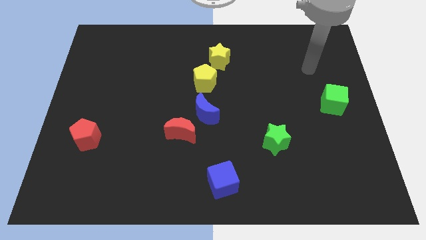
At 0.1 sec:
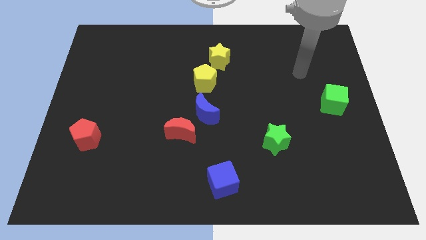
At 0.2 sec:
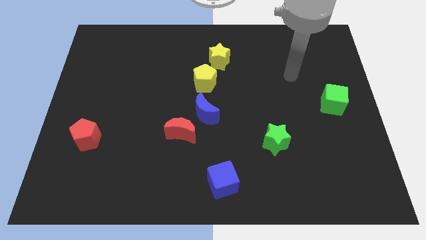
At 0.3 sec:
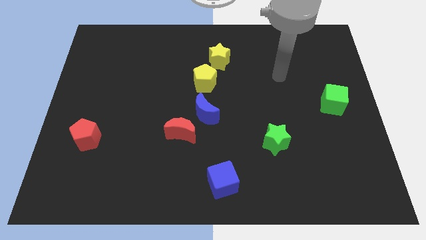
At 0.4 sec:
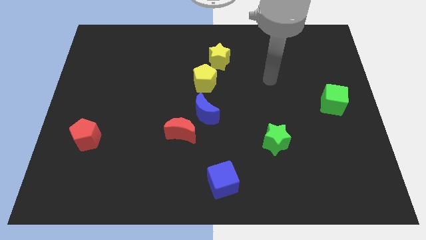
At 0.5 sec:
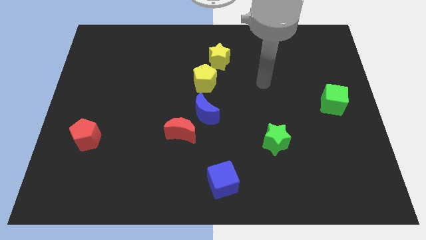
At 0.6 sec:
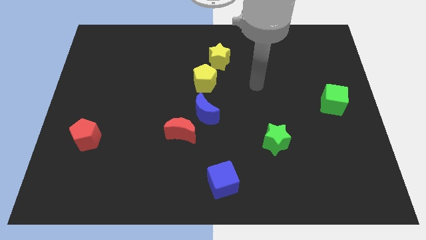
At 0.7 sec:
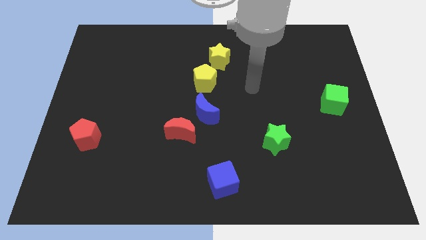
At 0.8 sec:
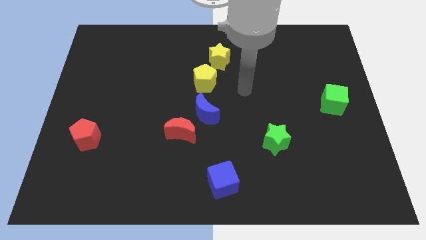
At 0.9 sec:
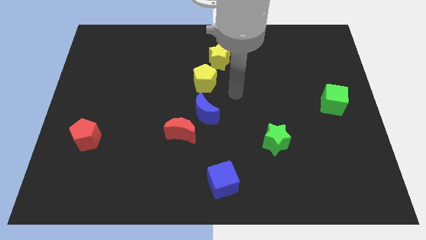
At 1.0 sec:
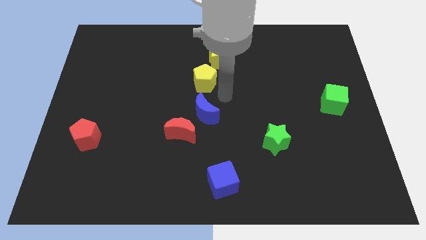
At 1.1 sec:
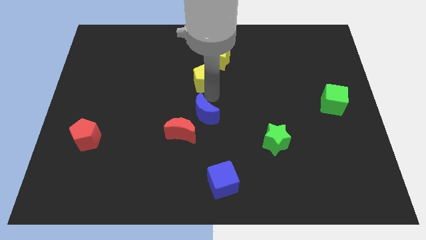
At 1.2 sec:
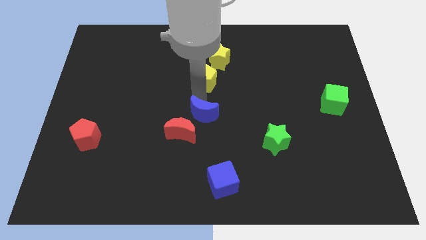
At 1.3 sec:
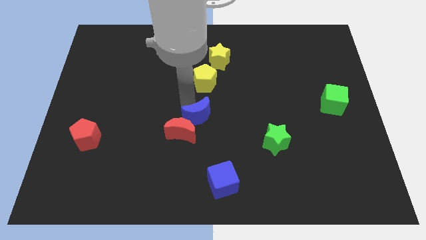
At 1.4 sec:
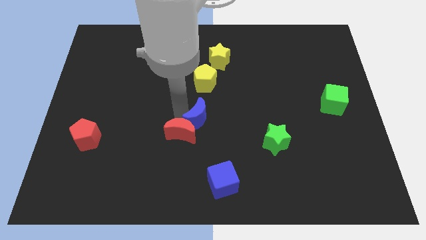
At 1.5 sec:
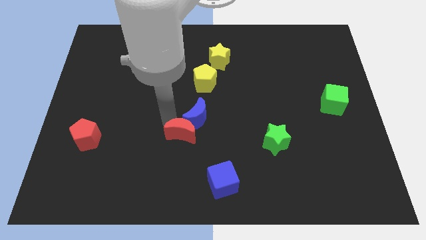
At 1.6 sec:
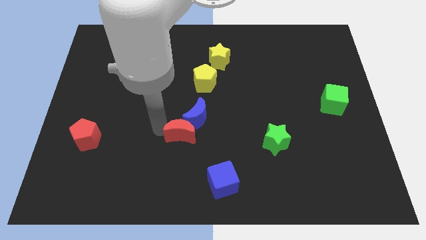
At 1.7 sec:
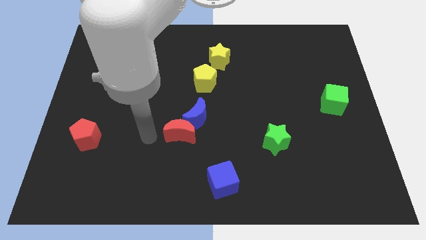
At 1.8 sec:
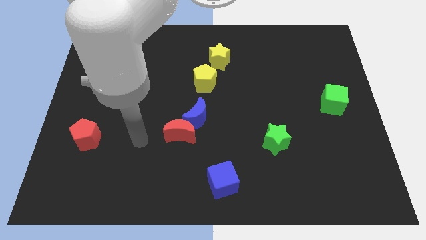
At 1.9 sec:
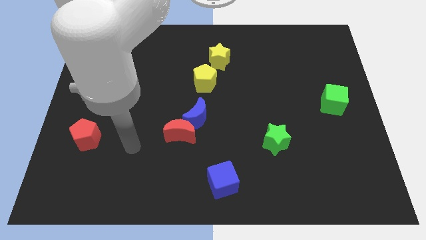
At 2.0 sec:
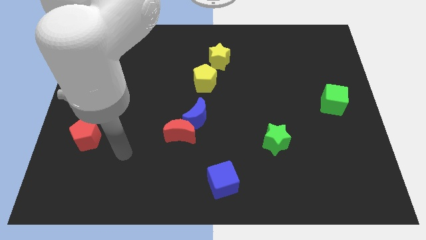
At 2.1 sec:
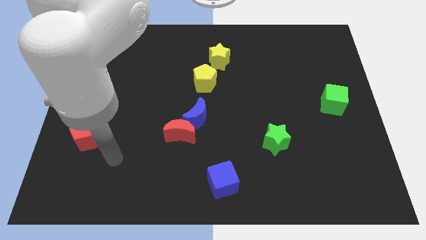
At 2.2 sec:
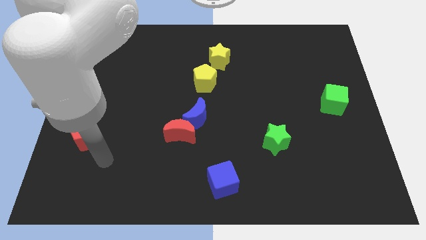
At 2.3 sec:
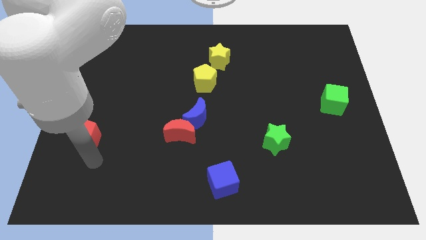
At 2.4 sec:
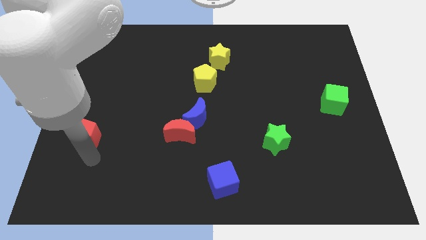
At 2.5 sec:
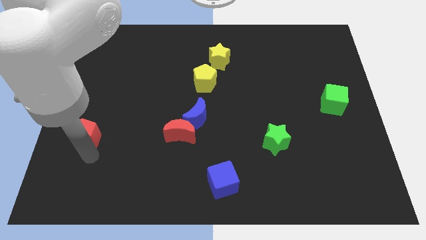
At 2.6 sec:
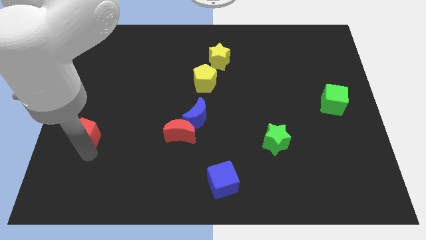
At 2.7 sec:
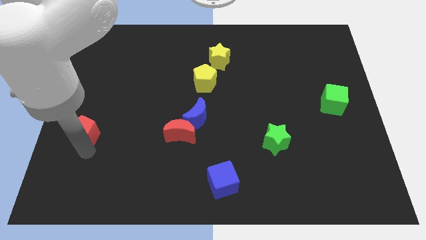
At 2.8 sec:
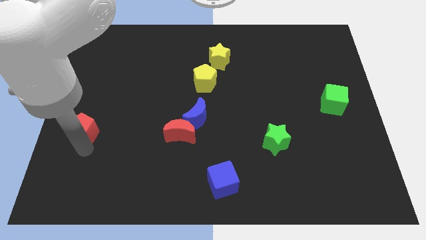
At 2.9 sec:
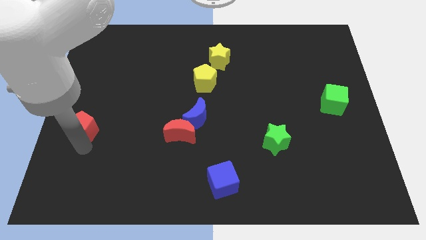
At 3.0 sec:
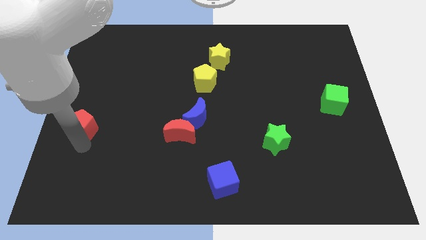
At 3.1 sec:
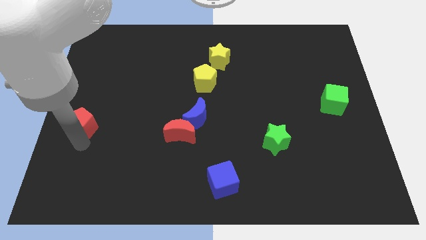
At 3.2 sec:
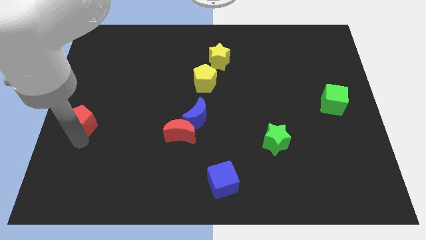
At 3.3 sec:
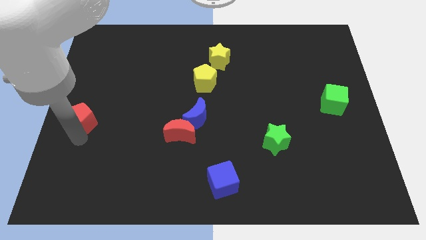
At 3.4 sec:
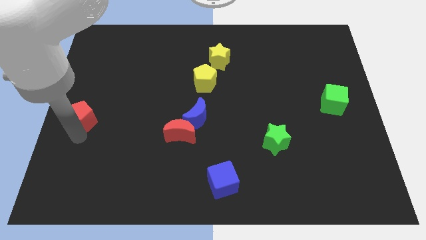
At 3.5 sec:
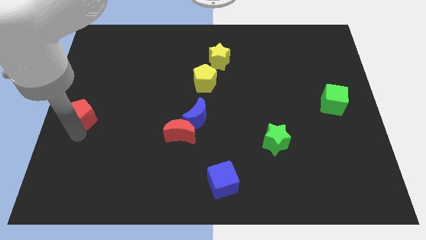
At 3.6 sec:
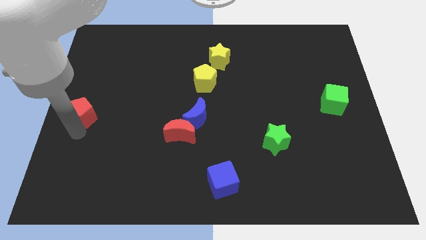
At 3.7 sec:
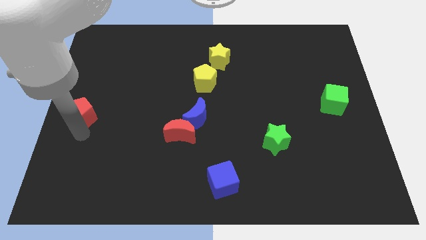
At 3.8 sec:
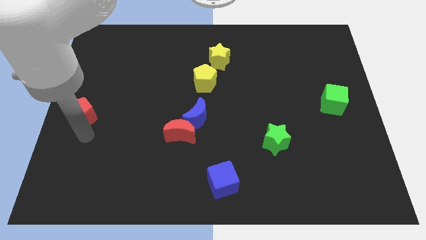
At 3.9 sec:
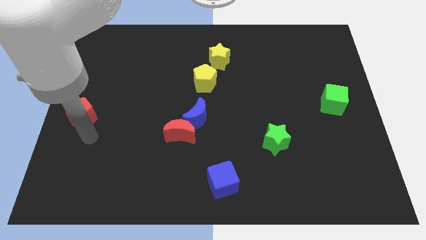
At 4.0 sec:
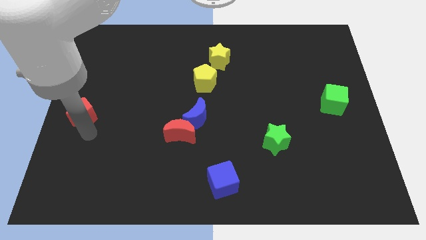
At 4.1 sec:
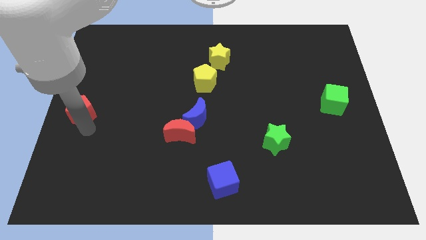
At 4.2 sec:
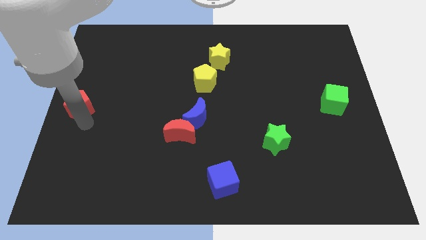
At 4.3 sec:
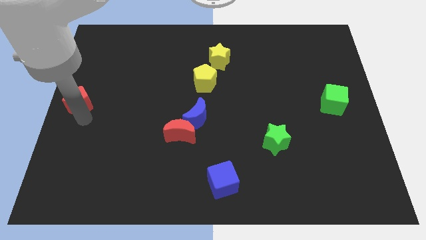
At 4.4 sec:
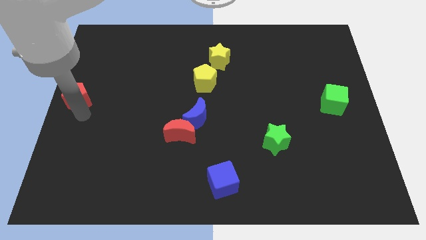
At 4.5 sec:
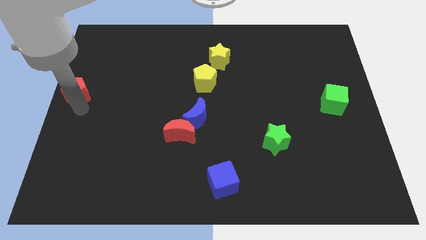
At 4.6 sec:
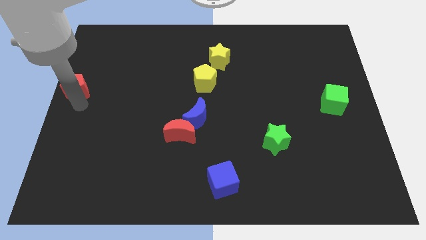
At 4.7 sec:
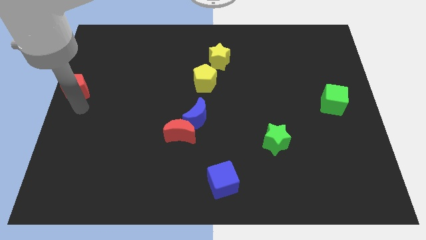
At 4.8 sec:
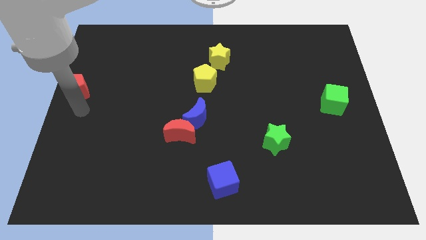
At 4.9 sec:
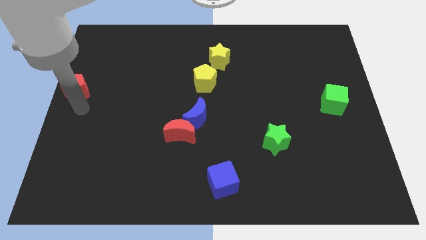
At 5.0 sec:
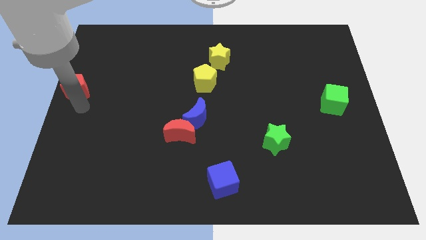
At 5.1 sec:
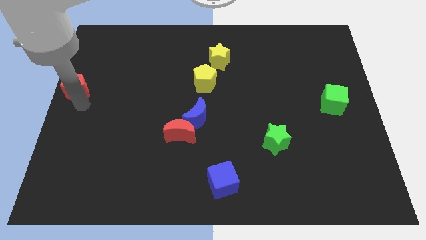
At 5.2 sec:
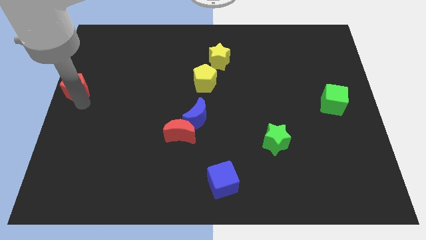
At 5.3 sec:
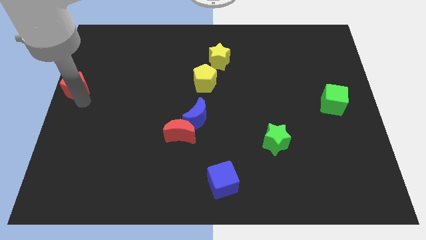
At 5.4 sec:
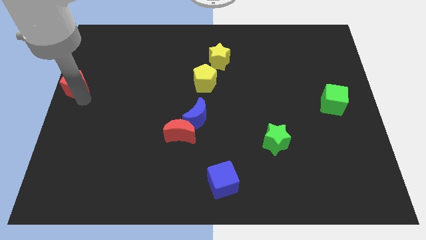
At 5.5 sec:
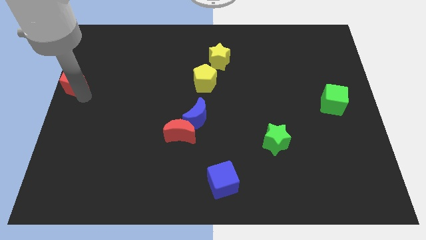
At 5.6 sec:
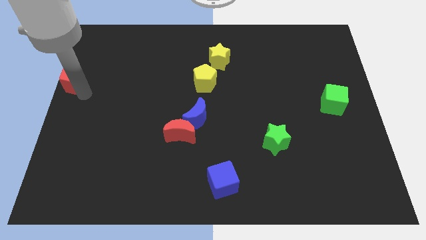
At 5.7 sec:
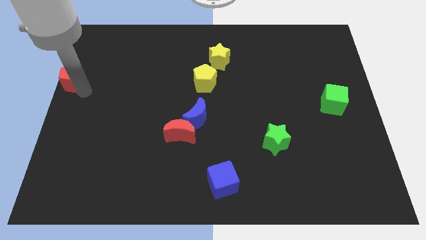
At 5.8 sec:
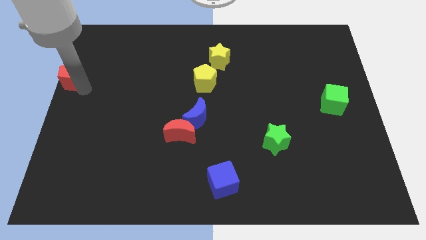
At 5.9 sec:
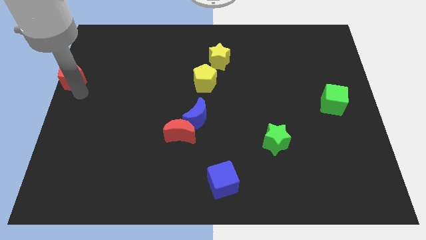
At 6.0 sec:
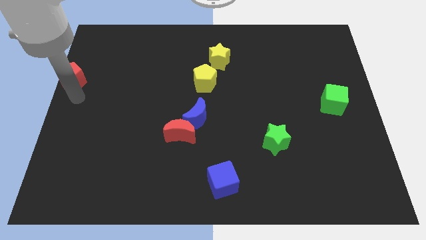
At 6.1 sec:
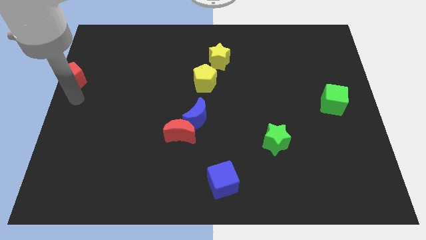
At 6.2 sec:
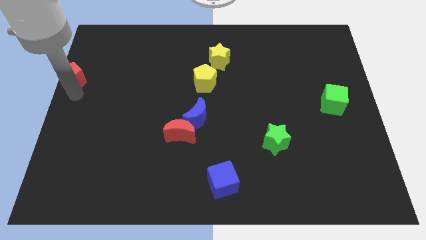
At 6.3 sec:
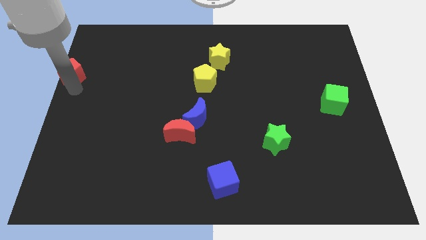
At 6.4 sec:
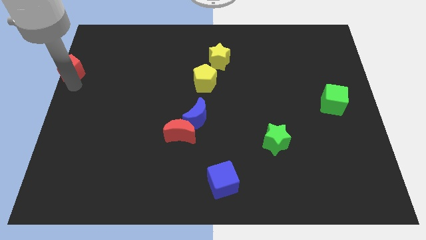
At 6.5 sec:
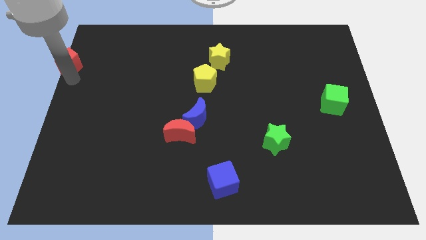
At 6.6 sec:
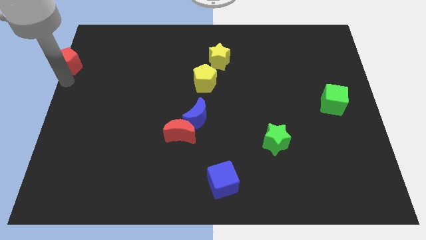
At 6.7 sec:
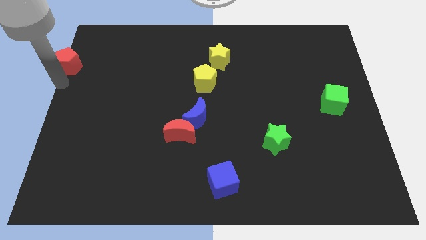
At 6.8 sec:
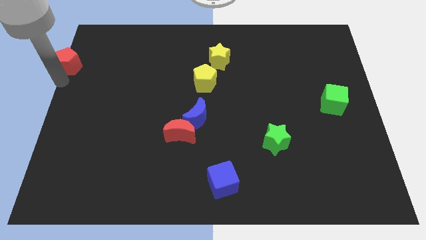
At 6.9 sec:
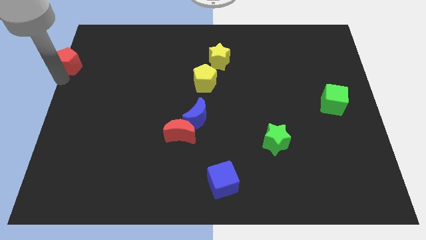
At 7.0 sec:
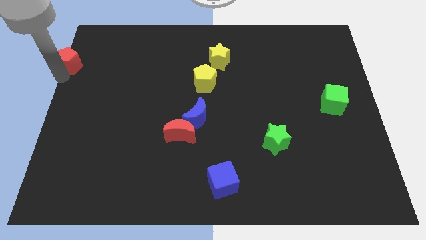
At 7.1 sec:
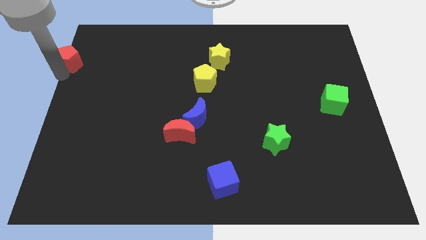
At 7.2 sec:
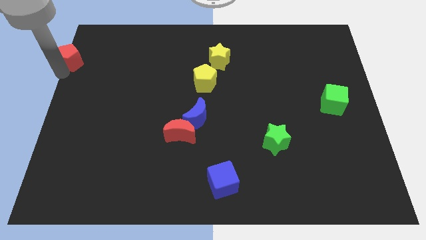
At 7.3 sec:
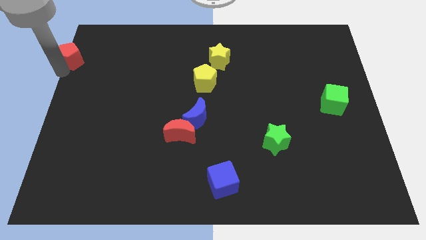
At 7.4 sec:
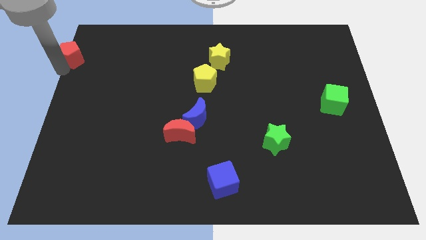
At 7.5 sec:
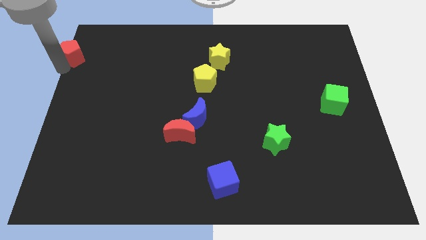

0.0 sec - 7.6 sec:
move the red pentagon to the top left corner
